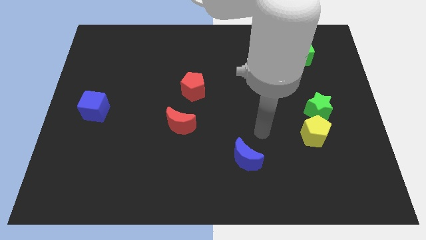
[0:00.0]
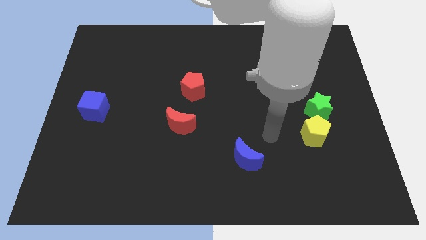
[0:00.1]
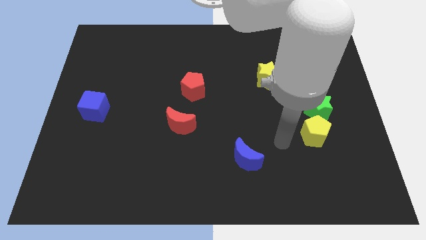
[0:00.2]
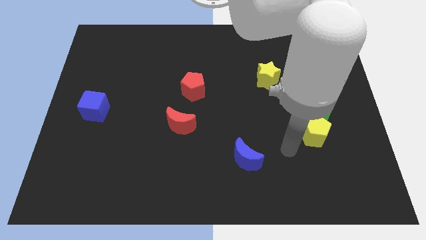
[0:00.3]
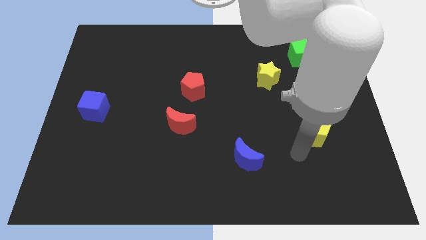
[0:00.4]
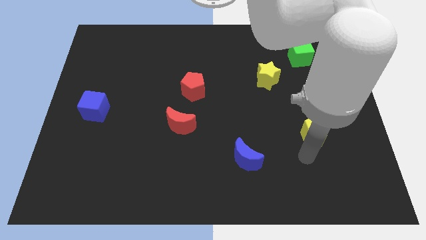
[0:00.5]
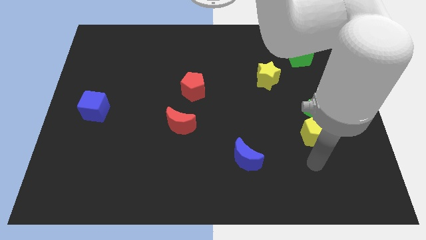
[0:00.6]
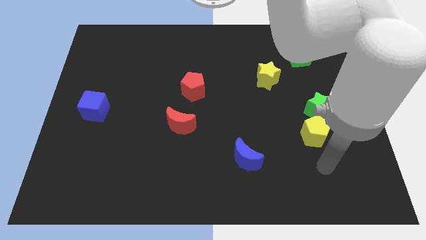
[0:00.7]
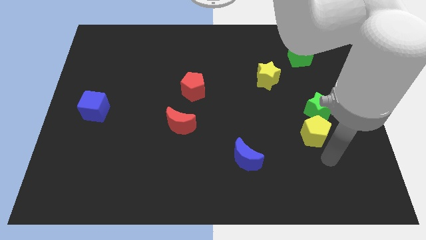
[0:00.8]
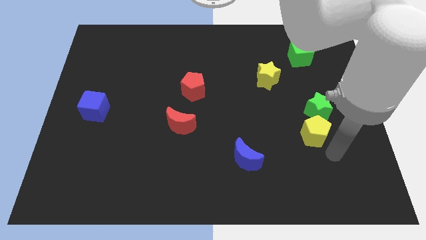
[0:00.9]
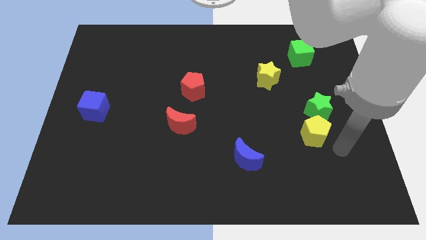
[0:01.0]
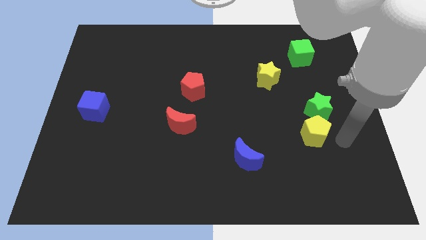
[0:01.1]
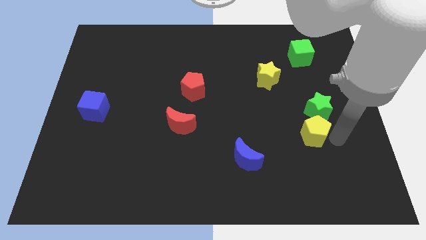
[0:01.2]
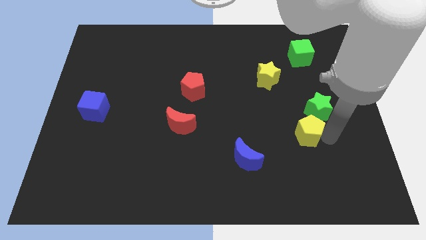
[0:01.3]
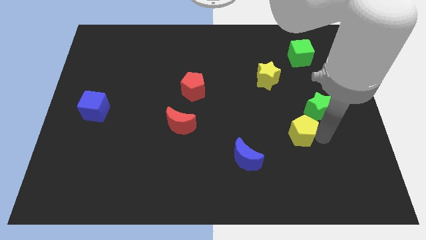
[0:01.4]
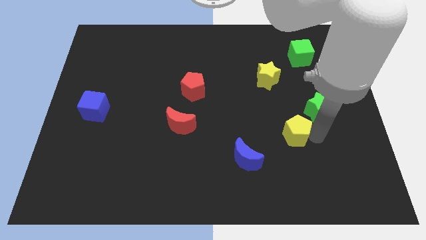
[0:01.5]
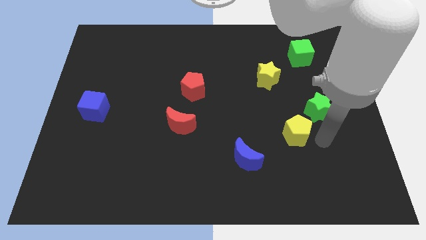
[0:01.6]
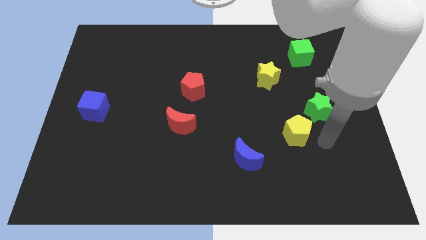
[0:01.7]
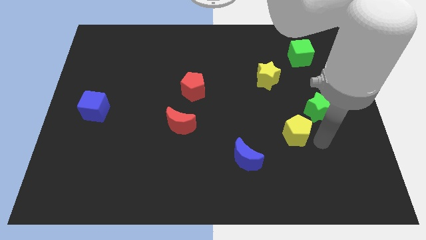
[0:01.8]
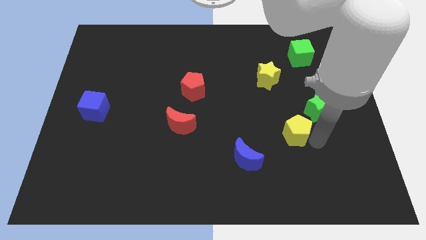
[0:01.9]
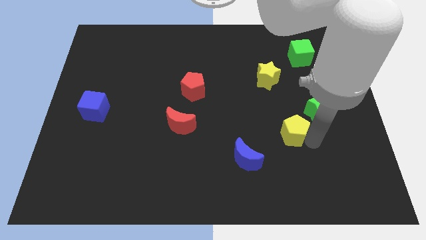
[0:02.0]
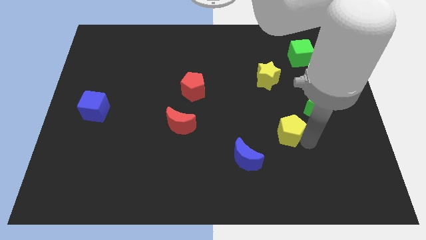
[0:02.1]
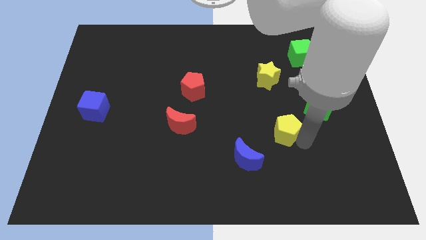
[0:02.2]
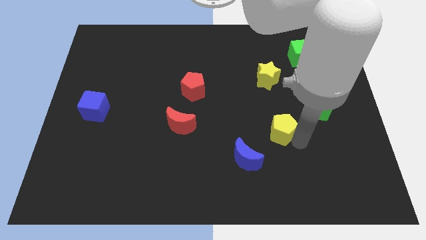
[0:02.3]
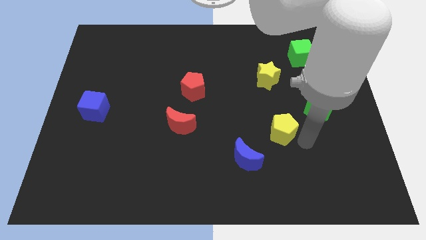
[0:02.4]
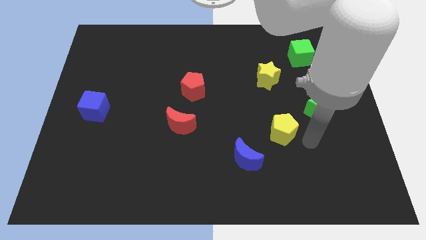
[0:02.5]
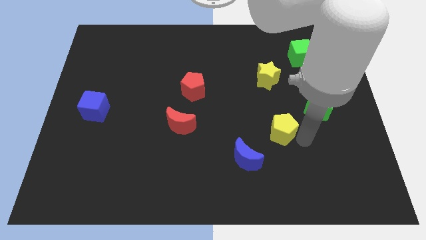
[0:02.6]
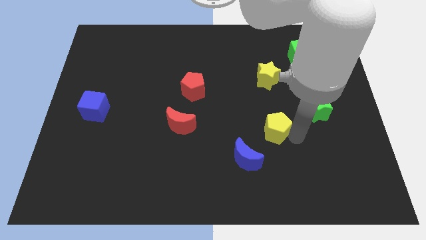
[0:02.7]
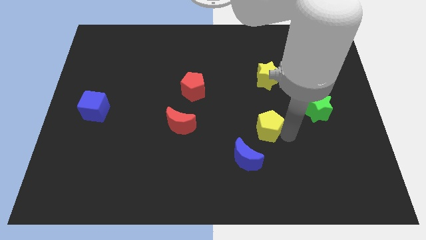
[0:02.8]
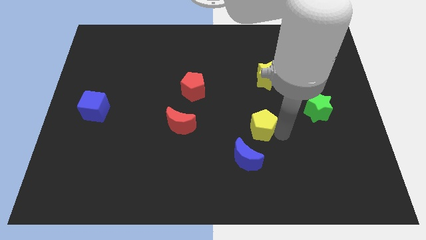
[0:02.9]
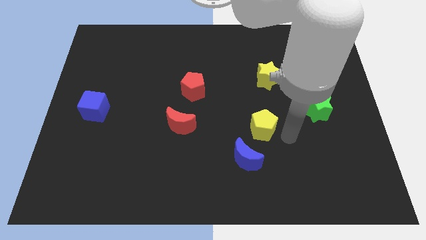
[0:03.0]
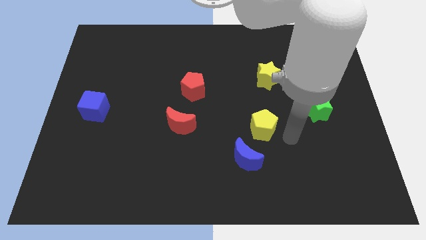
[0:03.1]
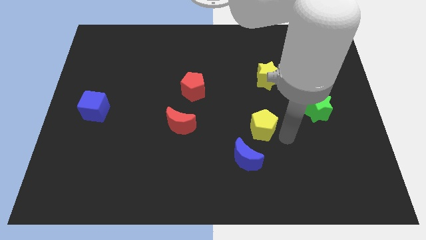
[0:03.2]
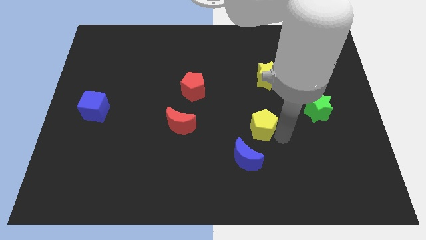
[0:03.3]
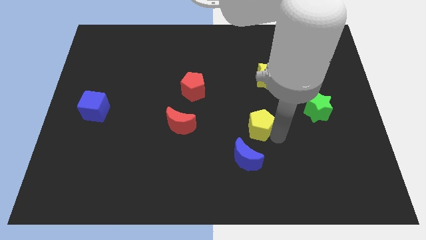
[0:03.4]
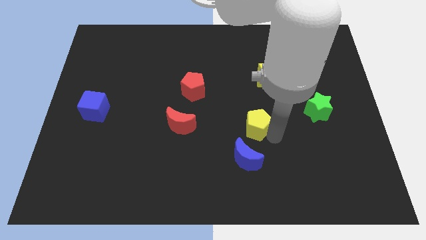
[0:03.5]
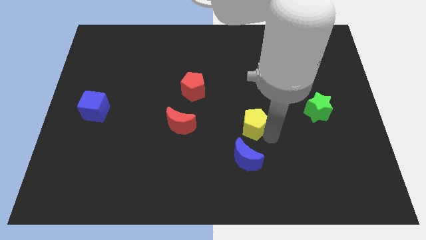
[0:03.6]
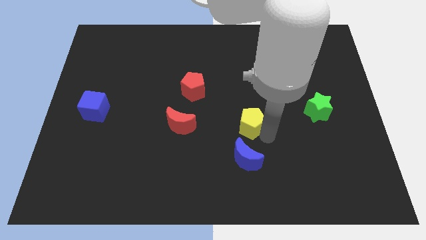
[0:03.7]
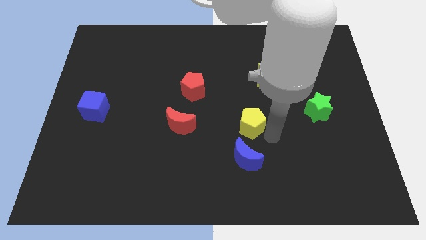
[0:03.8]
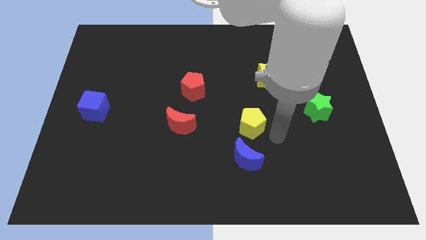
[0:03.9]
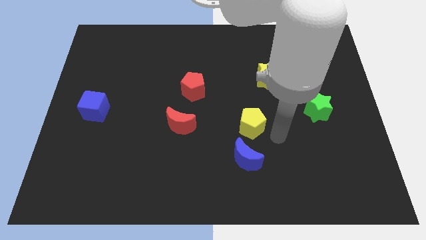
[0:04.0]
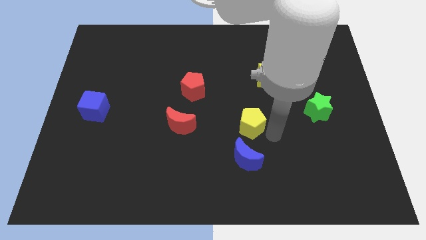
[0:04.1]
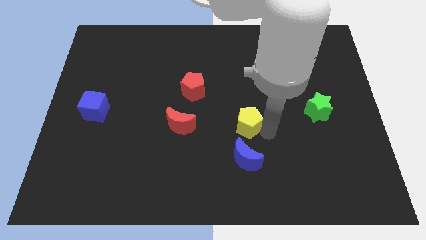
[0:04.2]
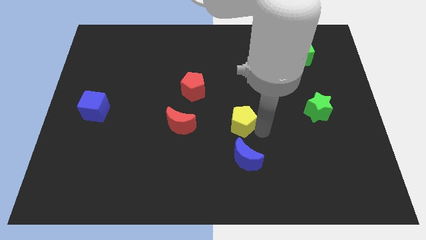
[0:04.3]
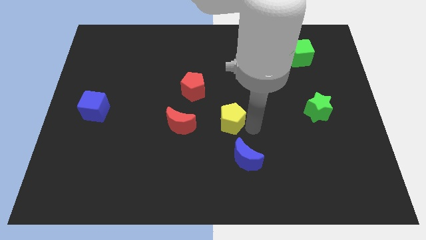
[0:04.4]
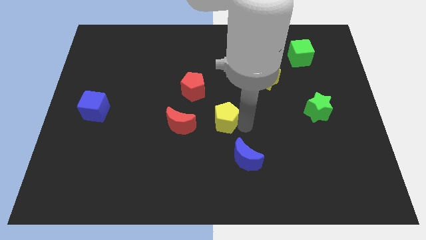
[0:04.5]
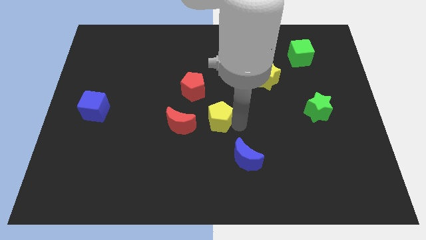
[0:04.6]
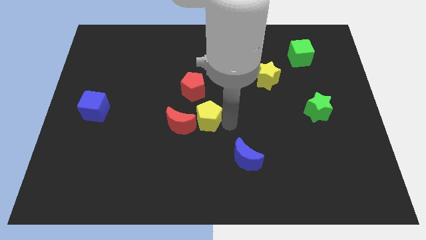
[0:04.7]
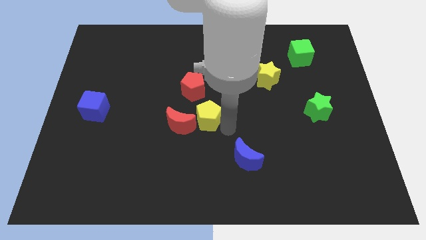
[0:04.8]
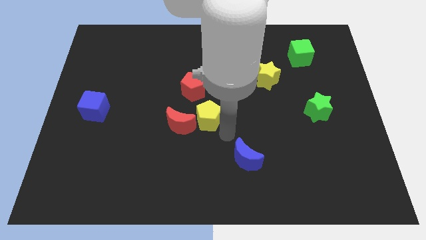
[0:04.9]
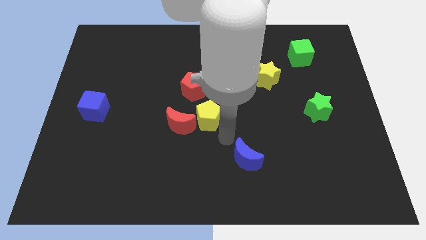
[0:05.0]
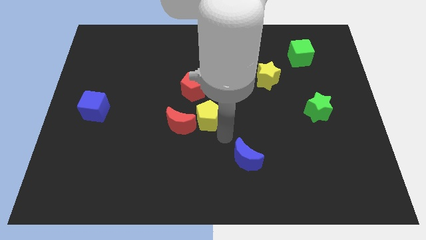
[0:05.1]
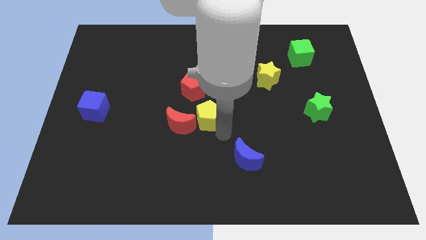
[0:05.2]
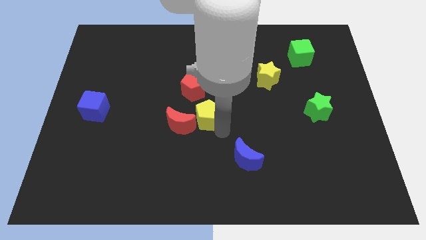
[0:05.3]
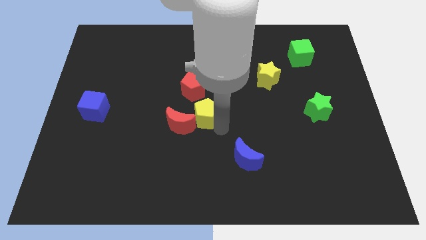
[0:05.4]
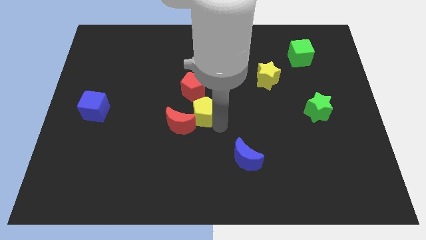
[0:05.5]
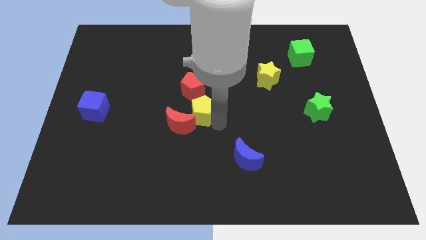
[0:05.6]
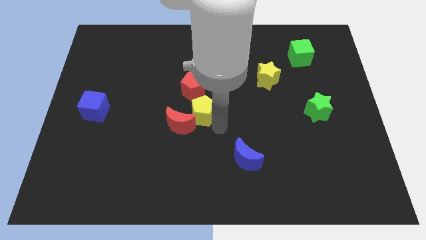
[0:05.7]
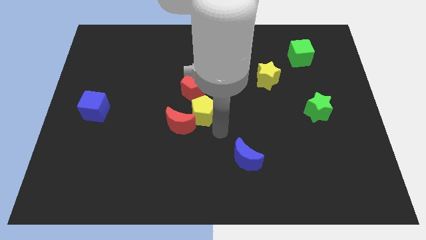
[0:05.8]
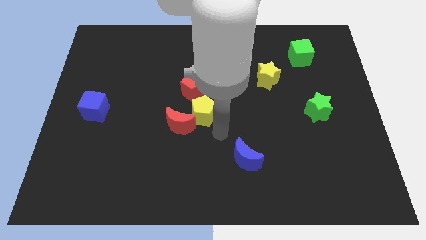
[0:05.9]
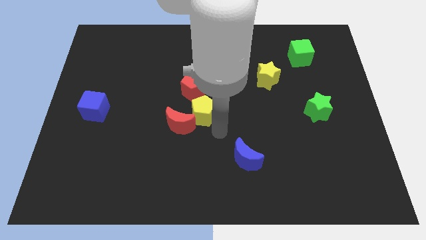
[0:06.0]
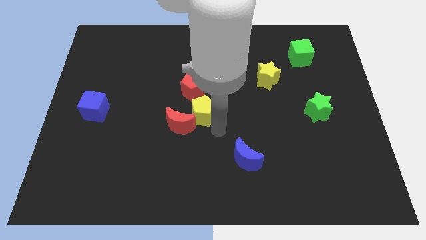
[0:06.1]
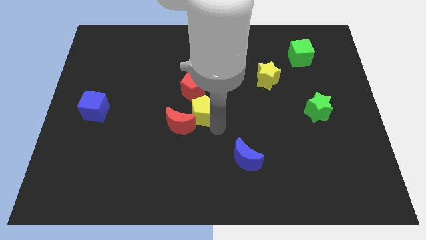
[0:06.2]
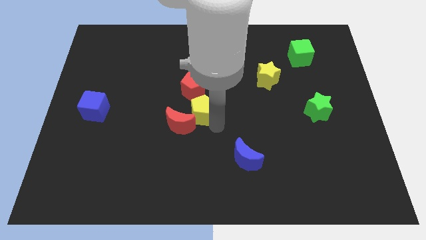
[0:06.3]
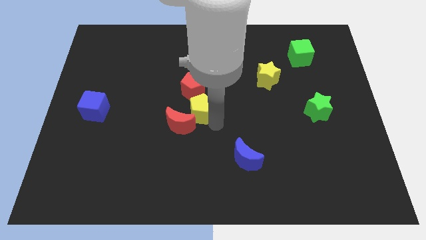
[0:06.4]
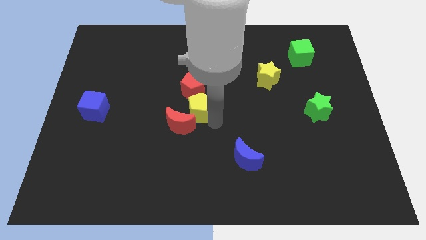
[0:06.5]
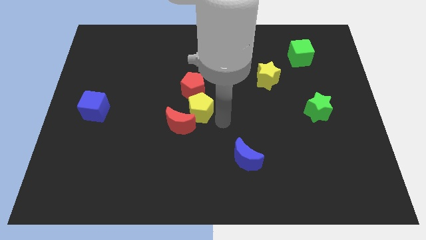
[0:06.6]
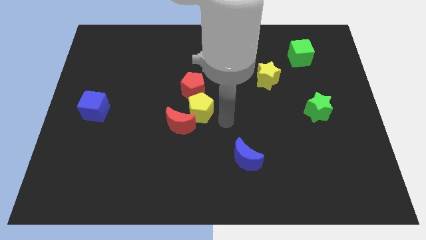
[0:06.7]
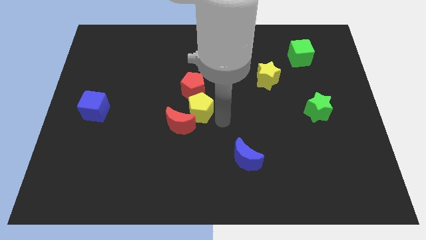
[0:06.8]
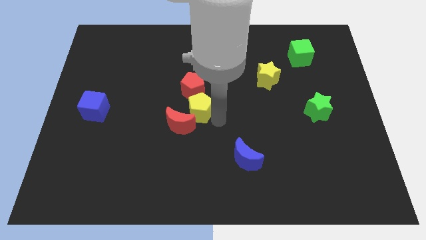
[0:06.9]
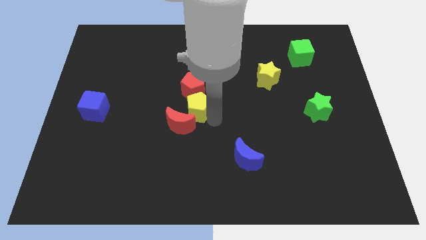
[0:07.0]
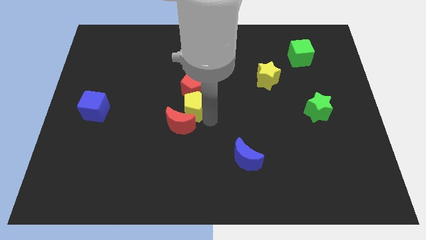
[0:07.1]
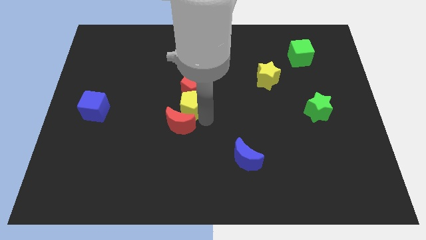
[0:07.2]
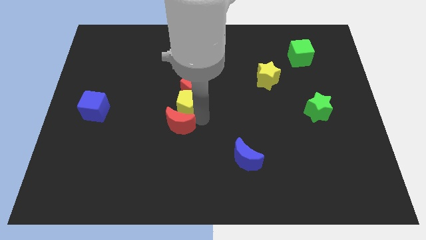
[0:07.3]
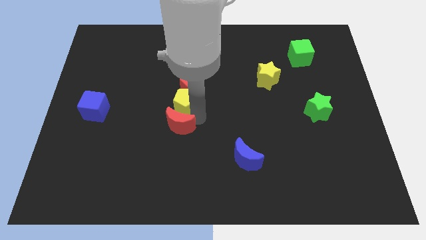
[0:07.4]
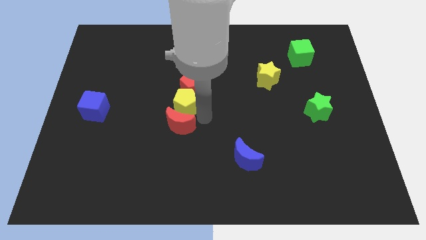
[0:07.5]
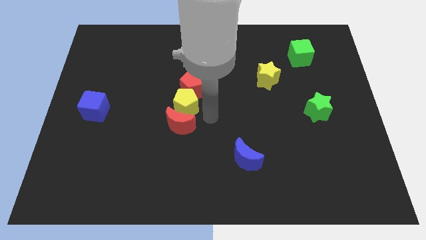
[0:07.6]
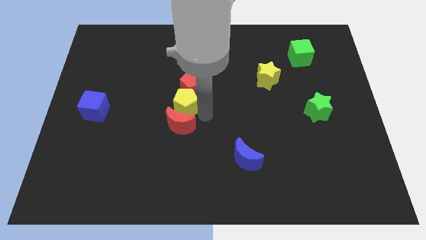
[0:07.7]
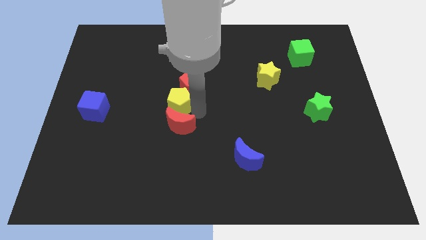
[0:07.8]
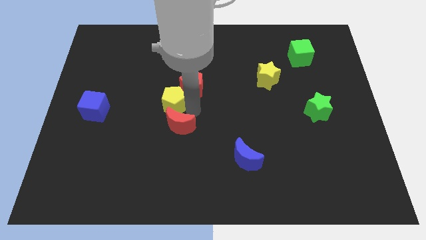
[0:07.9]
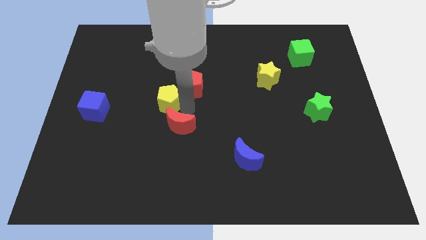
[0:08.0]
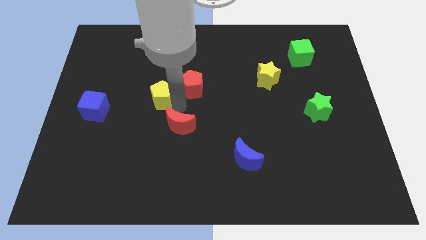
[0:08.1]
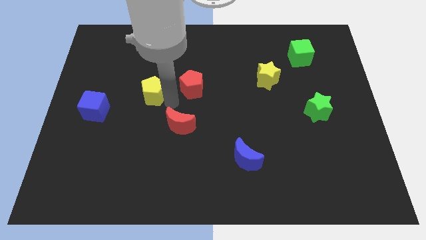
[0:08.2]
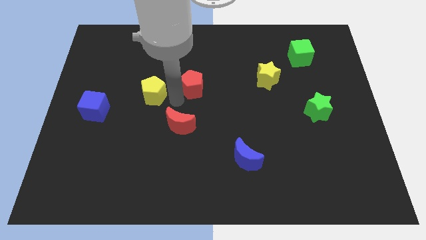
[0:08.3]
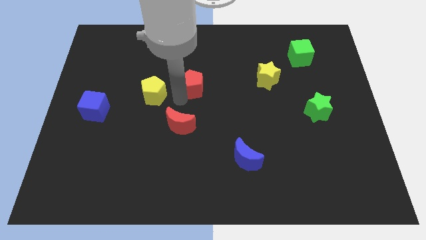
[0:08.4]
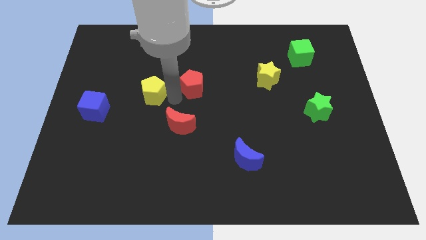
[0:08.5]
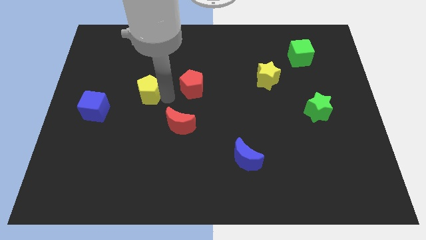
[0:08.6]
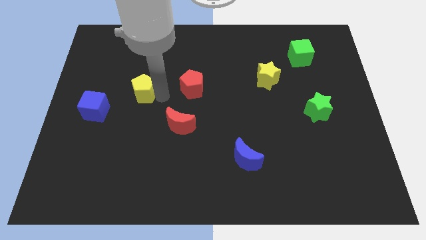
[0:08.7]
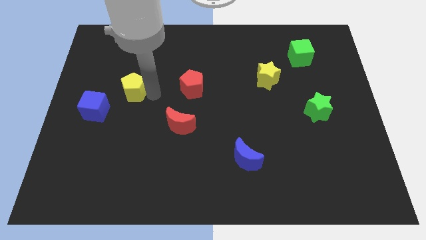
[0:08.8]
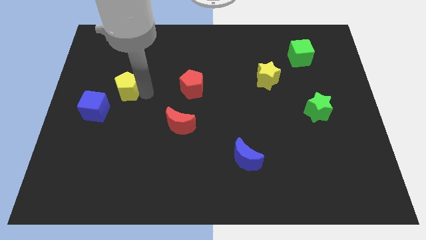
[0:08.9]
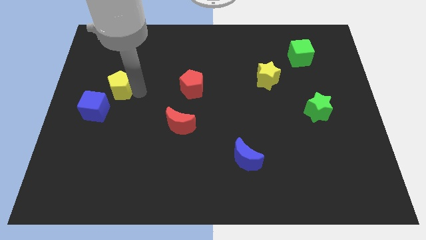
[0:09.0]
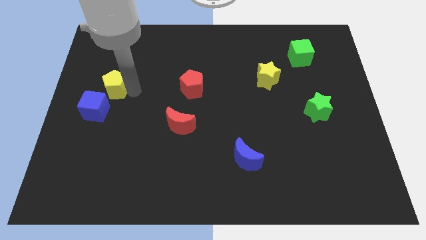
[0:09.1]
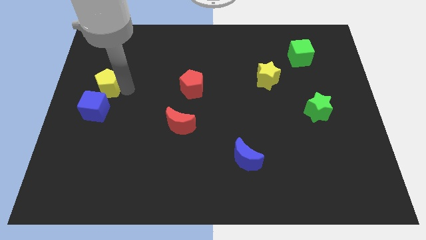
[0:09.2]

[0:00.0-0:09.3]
slide the yellow pentagon to the left side
